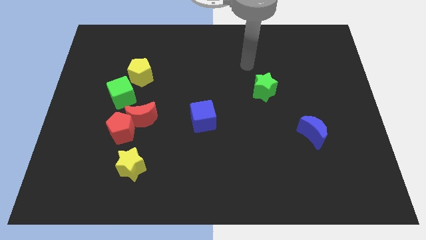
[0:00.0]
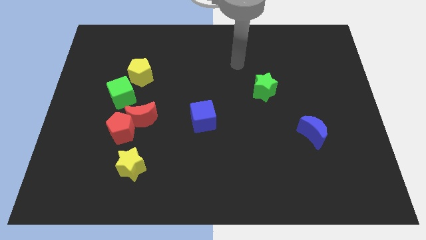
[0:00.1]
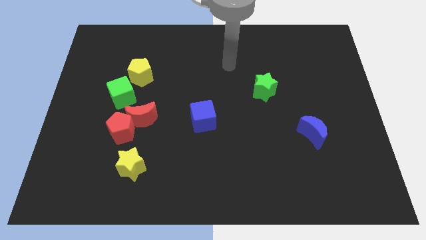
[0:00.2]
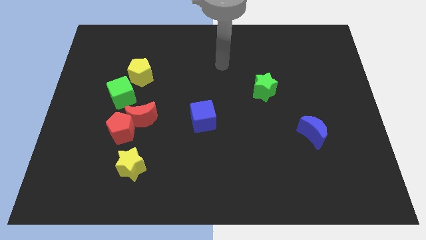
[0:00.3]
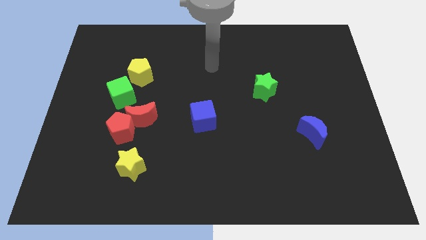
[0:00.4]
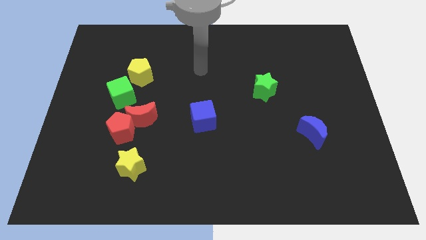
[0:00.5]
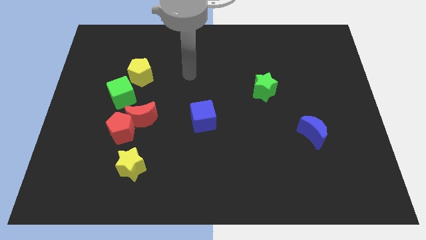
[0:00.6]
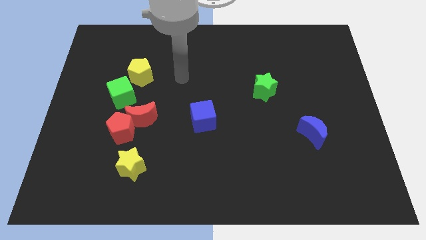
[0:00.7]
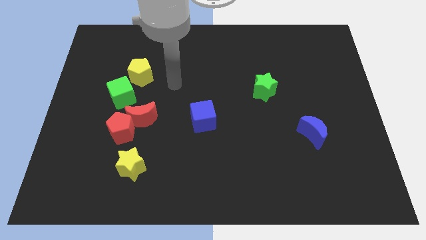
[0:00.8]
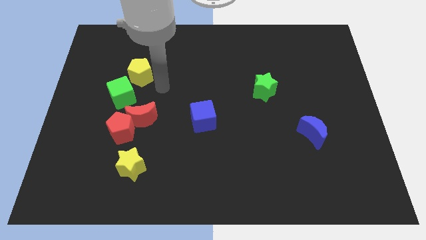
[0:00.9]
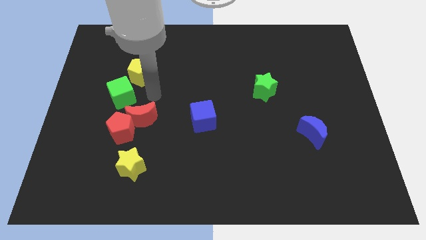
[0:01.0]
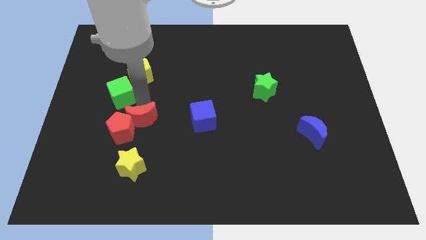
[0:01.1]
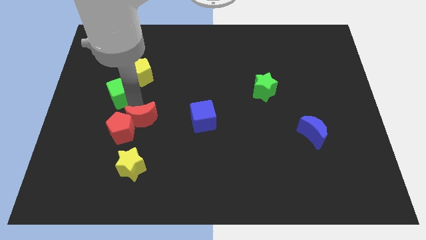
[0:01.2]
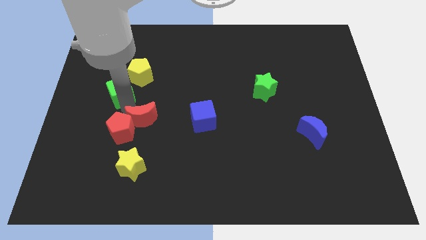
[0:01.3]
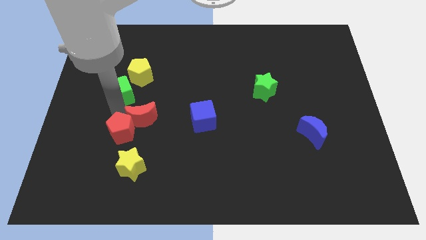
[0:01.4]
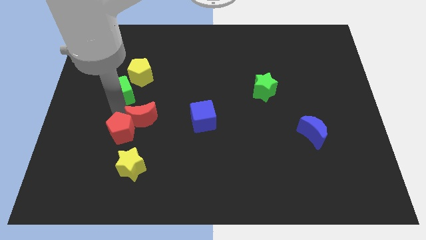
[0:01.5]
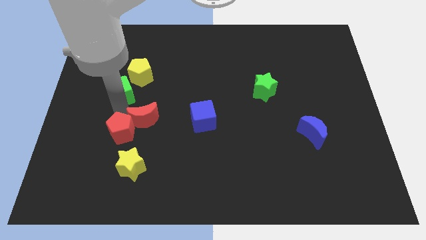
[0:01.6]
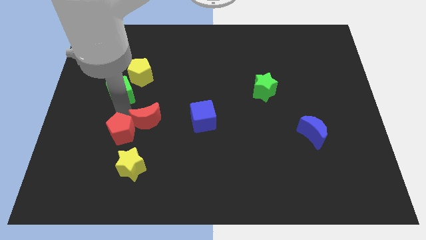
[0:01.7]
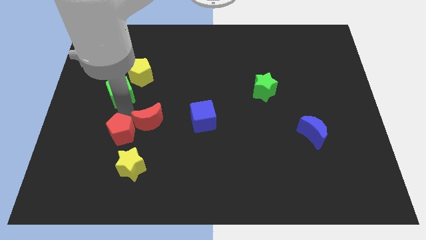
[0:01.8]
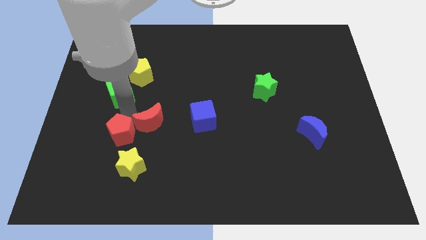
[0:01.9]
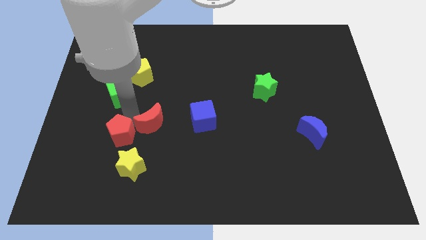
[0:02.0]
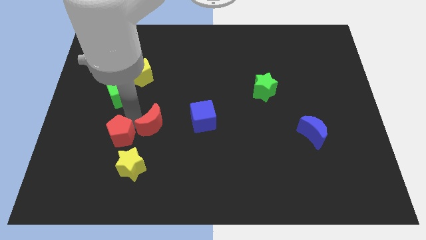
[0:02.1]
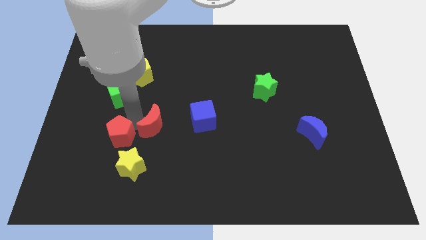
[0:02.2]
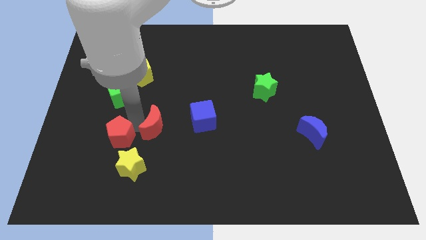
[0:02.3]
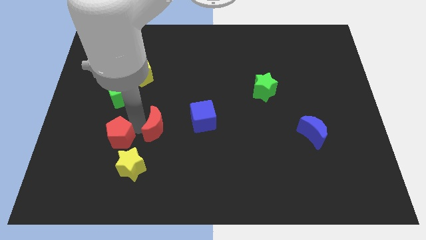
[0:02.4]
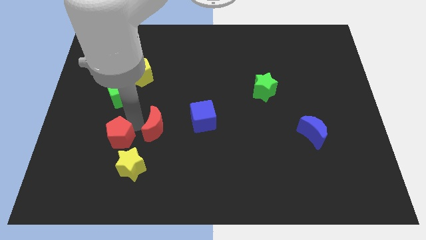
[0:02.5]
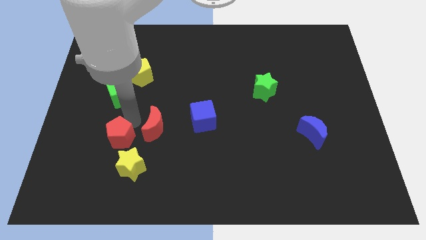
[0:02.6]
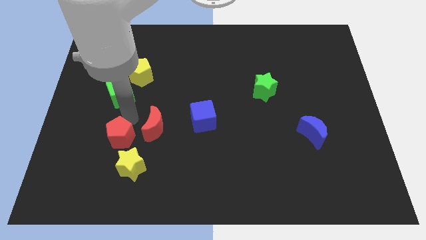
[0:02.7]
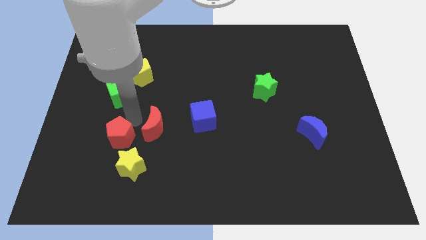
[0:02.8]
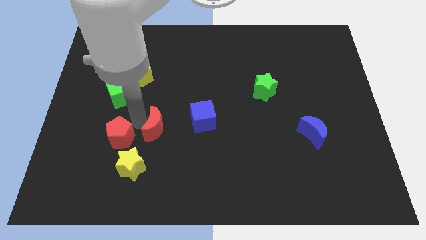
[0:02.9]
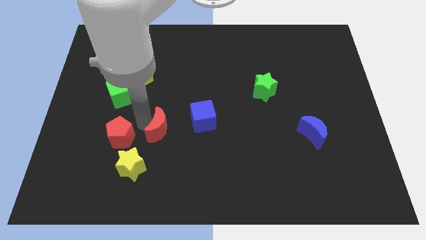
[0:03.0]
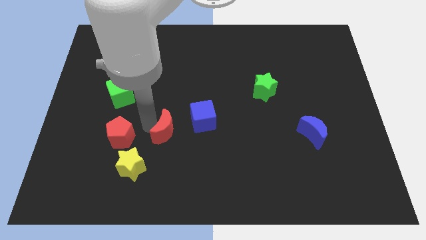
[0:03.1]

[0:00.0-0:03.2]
separate the red moon from the red pentagon and green cube

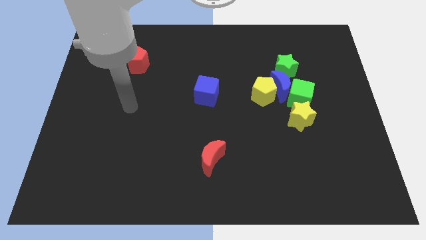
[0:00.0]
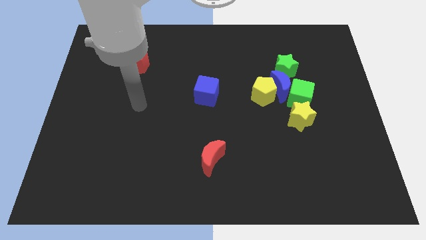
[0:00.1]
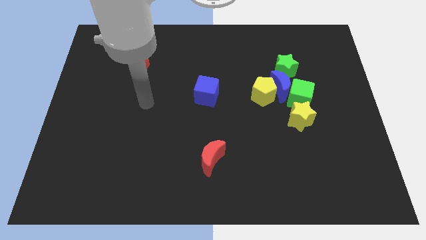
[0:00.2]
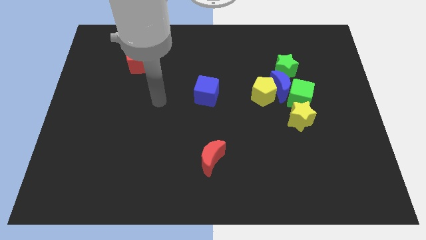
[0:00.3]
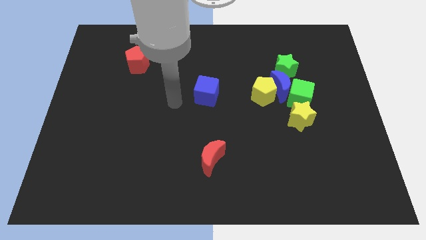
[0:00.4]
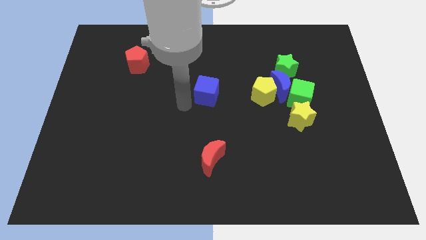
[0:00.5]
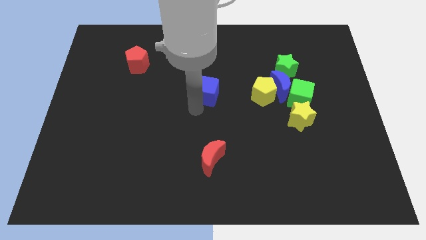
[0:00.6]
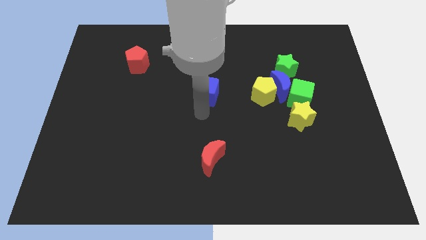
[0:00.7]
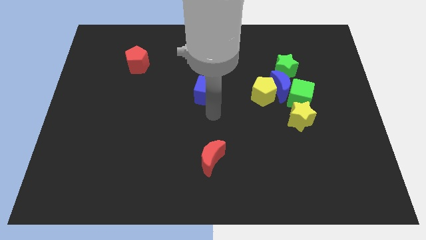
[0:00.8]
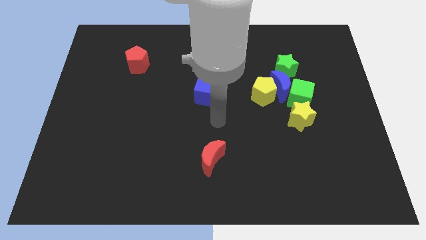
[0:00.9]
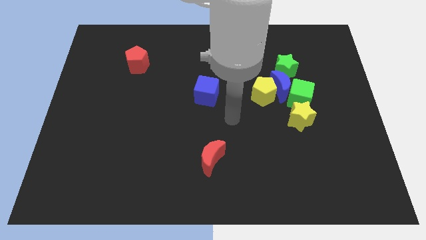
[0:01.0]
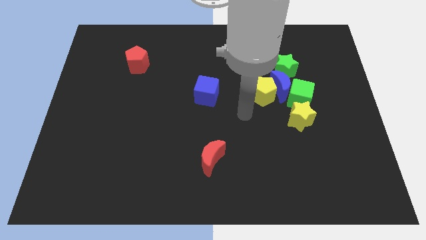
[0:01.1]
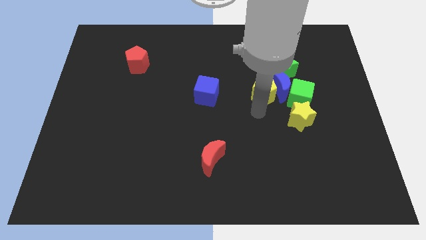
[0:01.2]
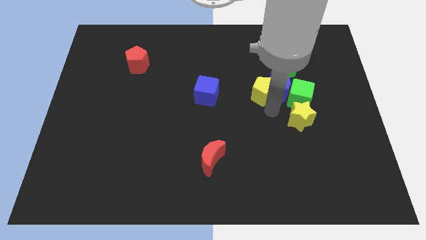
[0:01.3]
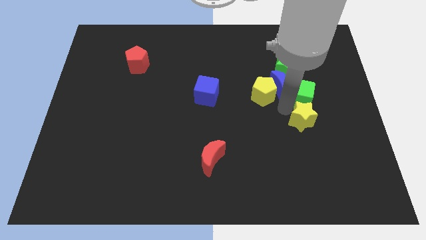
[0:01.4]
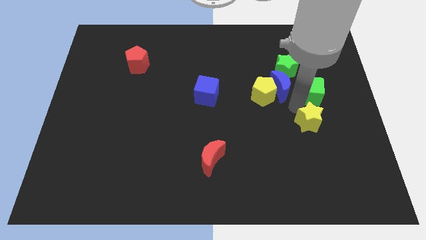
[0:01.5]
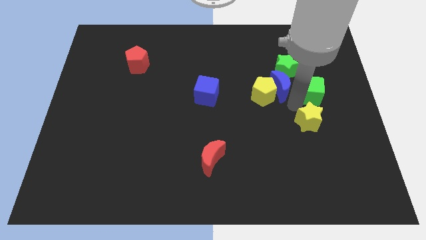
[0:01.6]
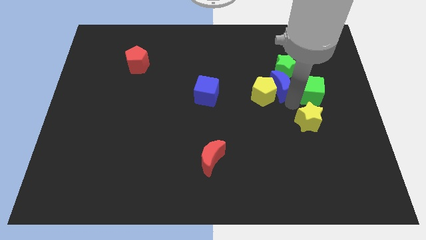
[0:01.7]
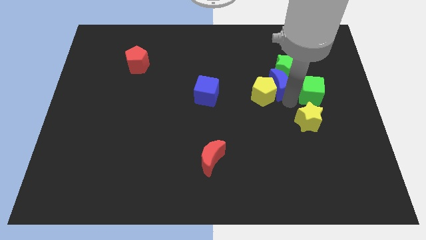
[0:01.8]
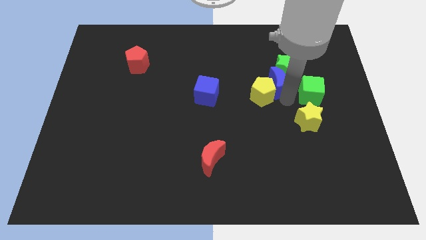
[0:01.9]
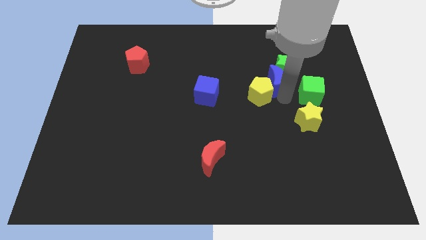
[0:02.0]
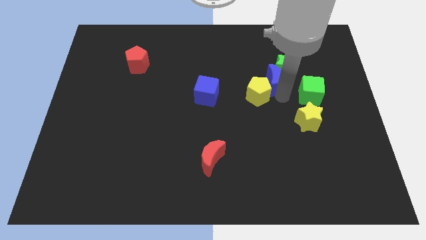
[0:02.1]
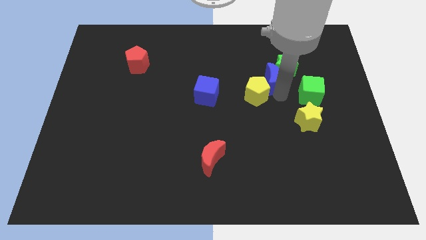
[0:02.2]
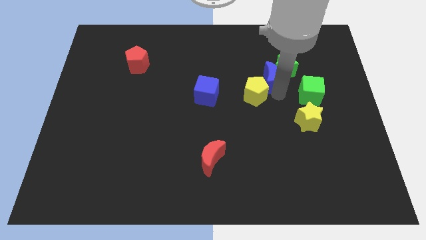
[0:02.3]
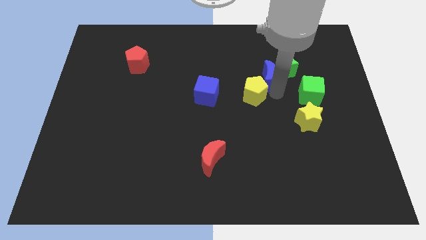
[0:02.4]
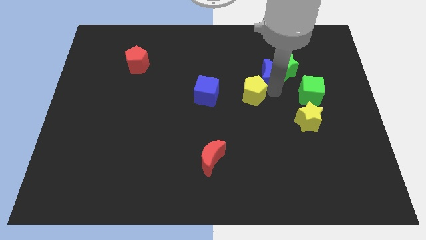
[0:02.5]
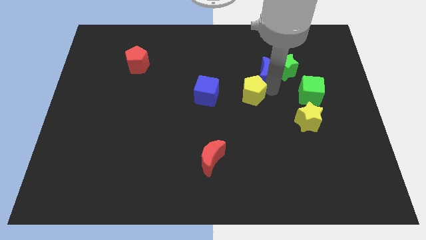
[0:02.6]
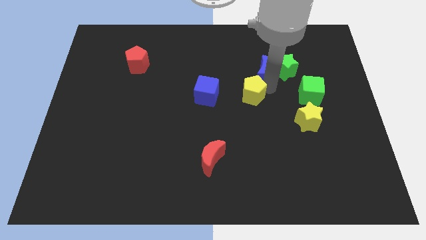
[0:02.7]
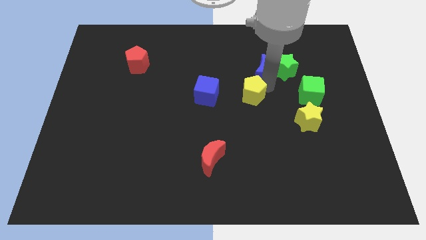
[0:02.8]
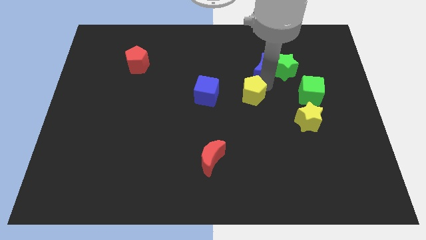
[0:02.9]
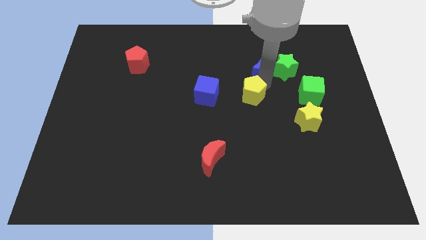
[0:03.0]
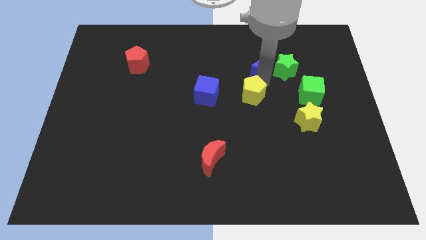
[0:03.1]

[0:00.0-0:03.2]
move the blue moon away from the group

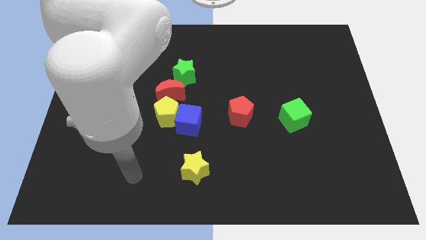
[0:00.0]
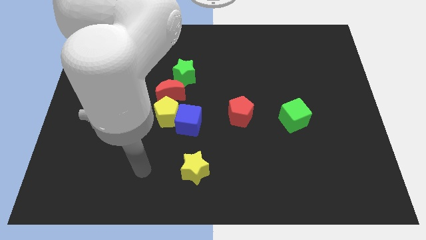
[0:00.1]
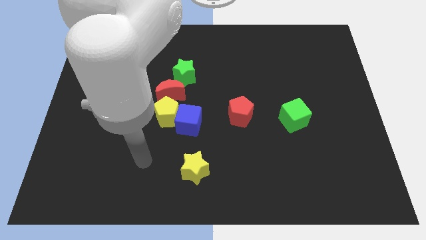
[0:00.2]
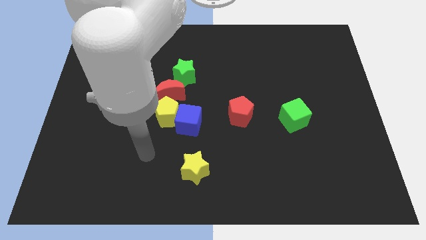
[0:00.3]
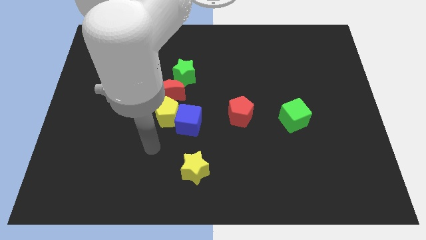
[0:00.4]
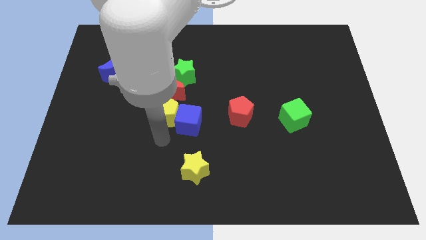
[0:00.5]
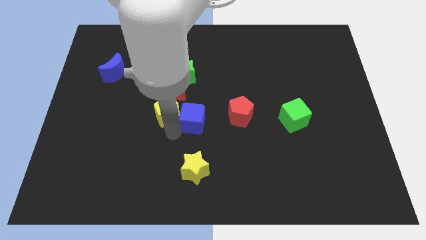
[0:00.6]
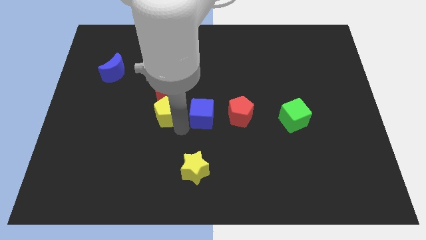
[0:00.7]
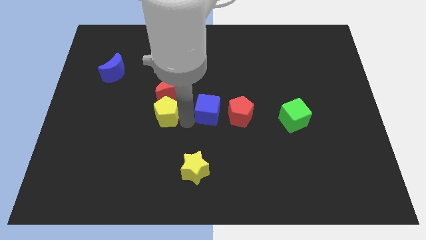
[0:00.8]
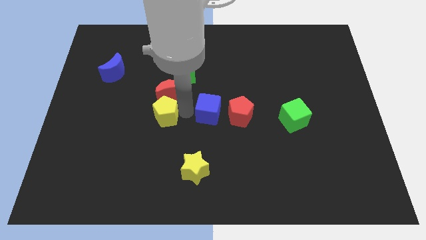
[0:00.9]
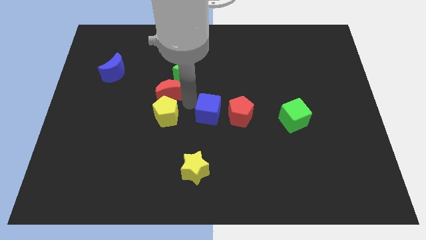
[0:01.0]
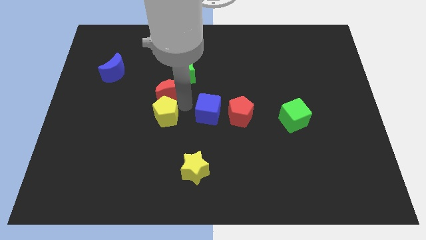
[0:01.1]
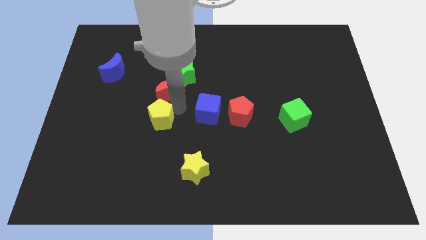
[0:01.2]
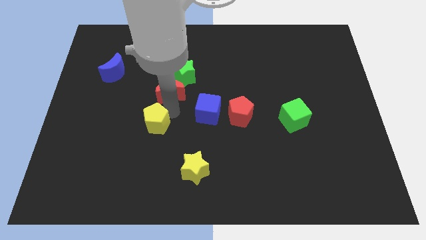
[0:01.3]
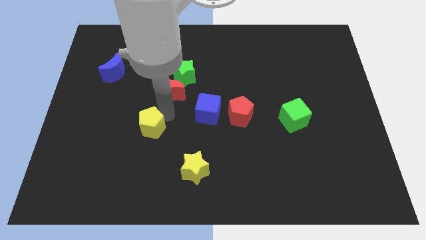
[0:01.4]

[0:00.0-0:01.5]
pull the yellow pentagon apart from the blue cube and red moon

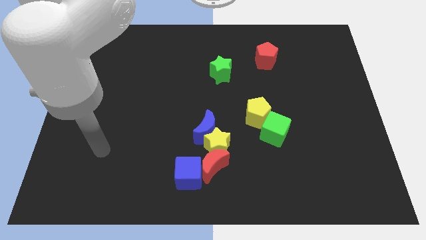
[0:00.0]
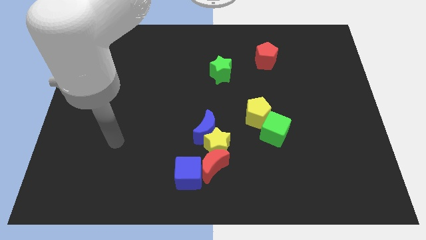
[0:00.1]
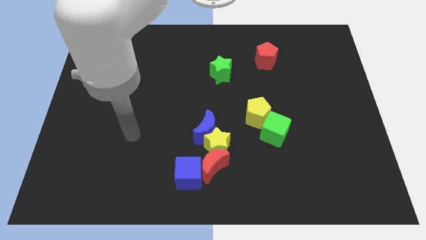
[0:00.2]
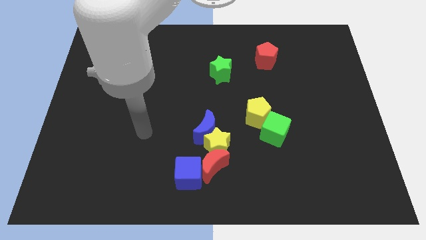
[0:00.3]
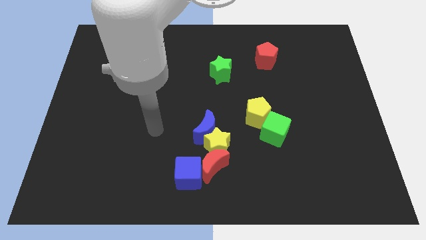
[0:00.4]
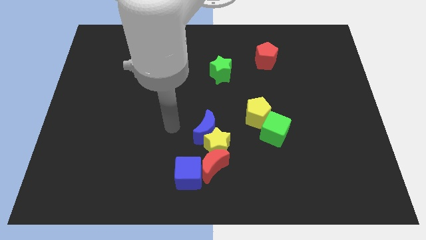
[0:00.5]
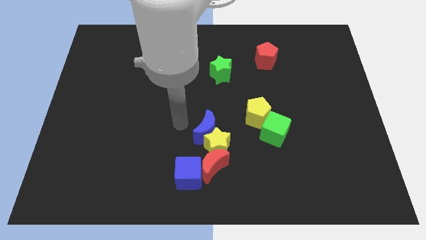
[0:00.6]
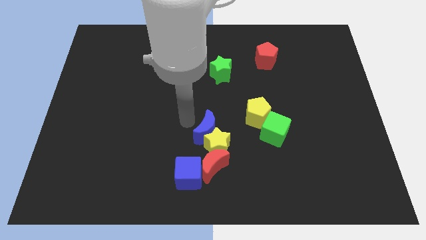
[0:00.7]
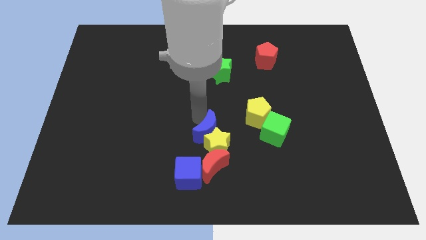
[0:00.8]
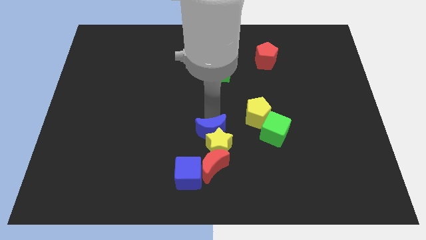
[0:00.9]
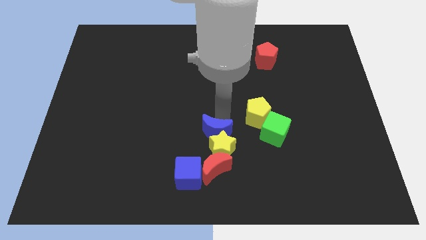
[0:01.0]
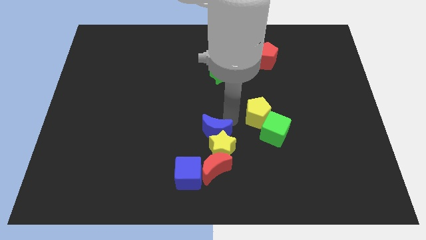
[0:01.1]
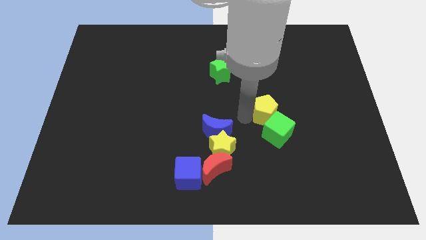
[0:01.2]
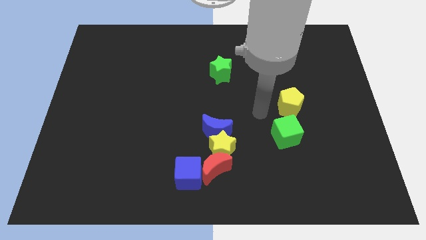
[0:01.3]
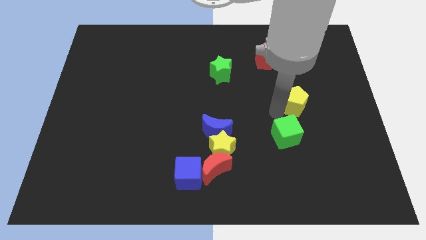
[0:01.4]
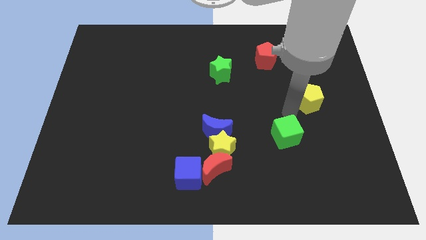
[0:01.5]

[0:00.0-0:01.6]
separate the green cube from the yellow pentagon
